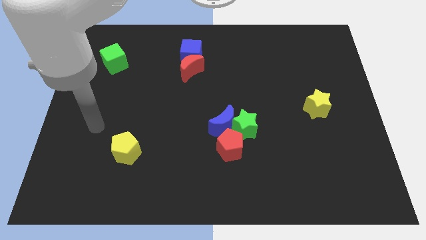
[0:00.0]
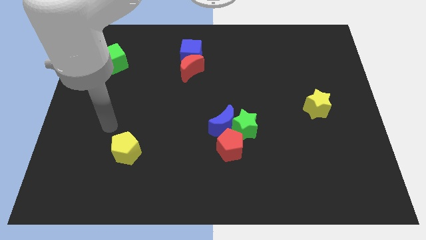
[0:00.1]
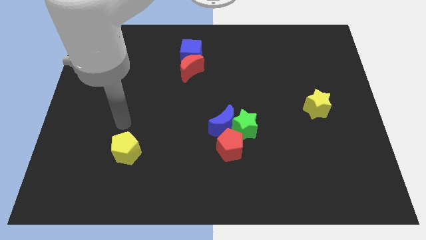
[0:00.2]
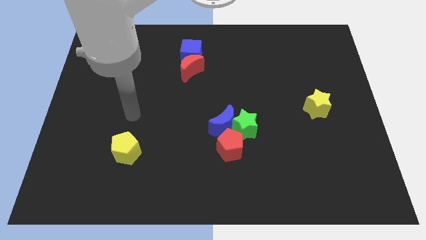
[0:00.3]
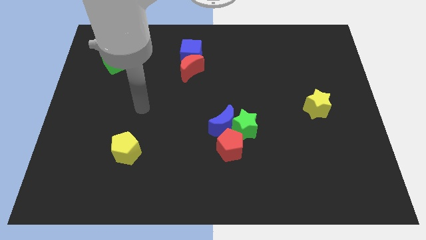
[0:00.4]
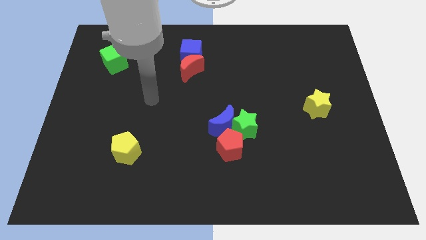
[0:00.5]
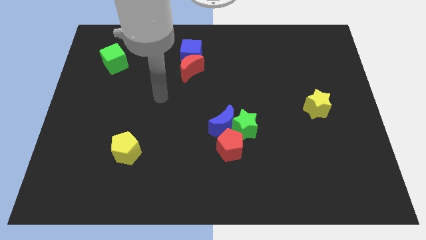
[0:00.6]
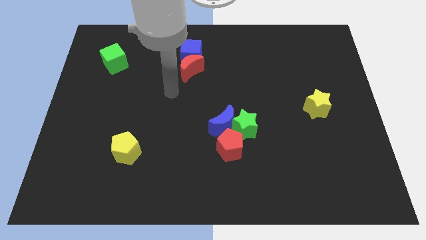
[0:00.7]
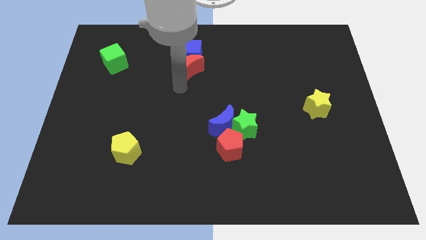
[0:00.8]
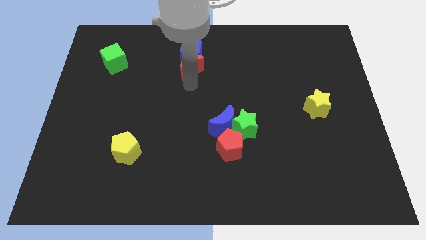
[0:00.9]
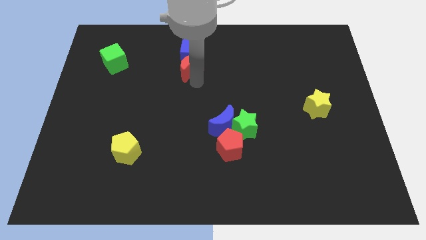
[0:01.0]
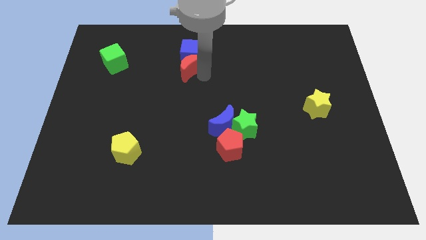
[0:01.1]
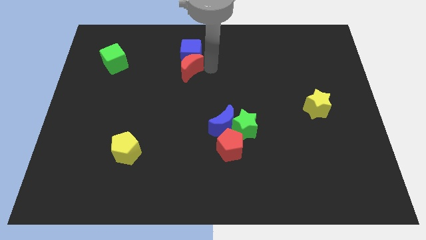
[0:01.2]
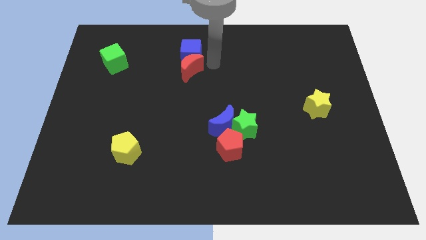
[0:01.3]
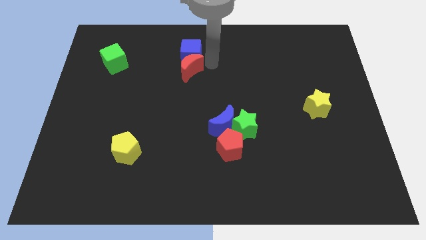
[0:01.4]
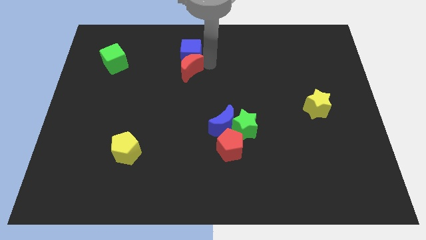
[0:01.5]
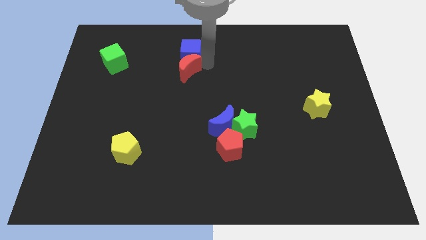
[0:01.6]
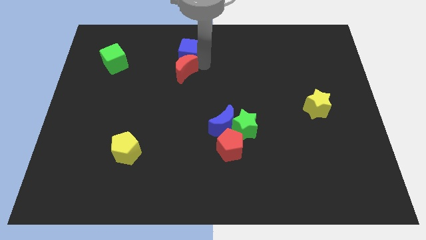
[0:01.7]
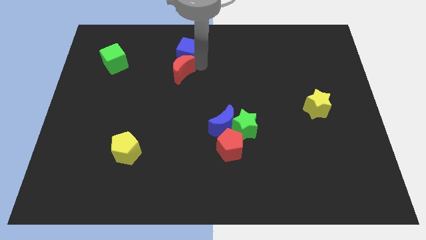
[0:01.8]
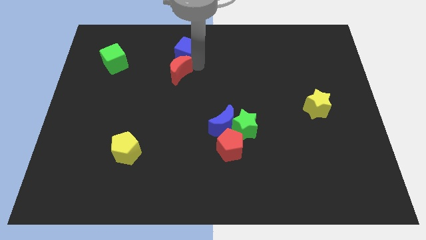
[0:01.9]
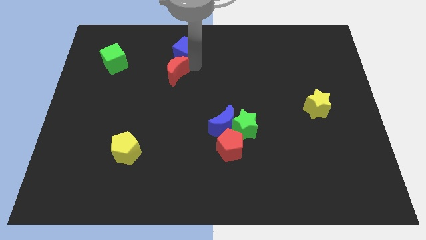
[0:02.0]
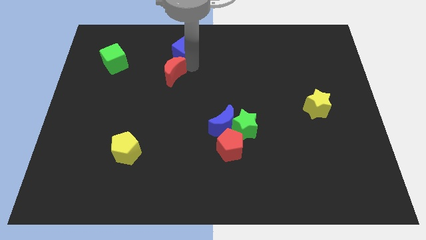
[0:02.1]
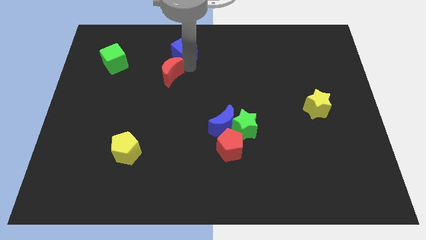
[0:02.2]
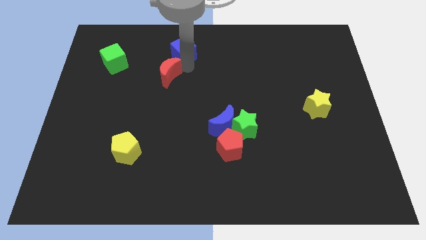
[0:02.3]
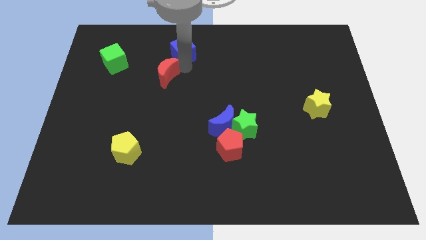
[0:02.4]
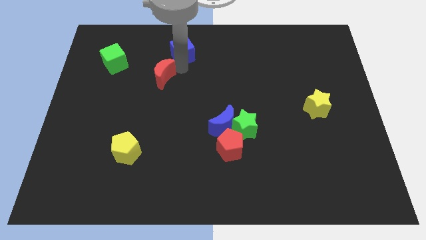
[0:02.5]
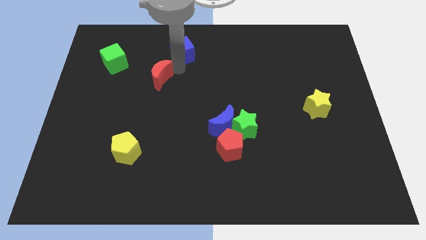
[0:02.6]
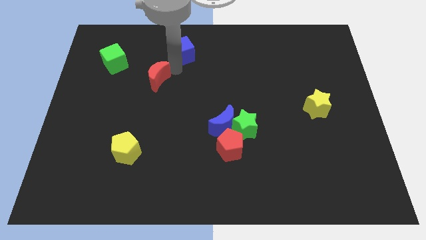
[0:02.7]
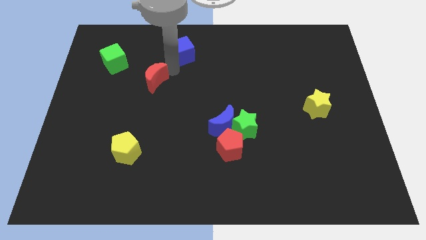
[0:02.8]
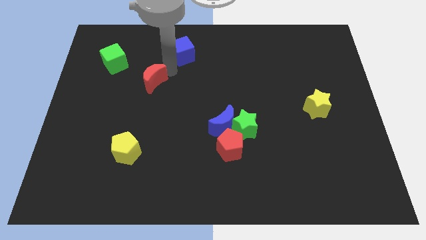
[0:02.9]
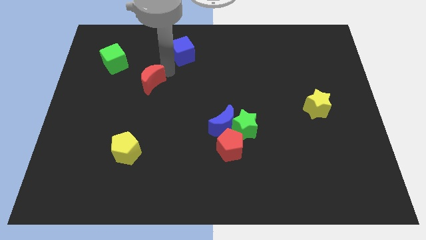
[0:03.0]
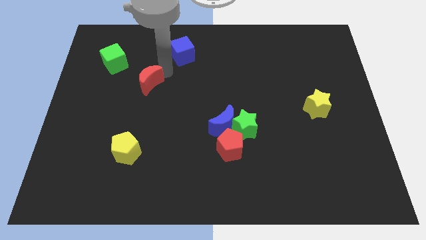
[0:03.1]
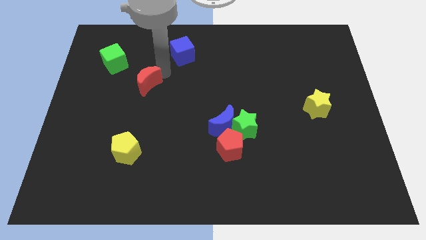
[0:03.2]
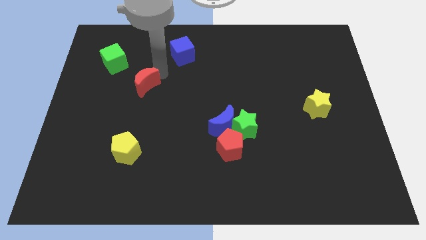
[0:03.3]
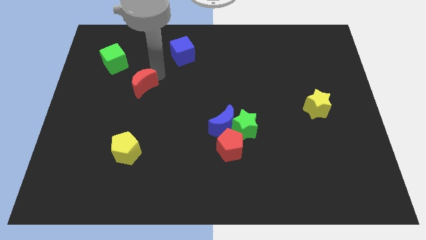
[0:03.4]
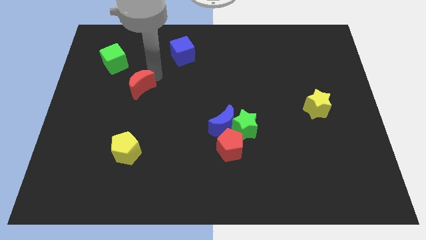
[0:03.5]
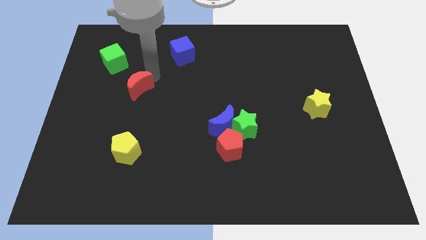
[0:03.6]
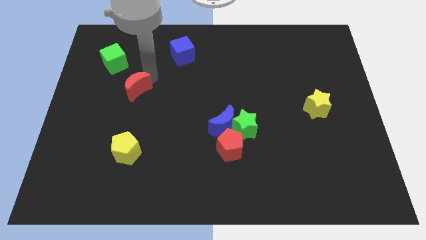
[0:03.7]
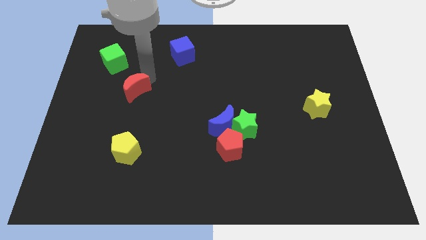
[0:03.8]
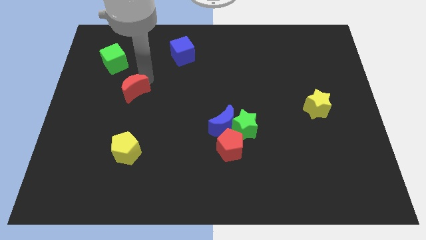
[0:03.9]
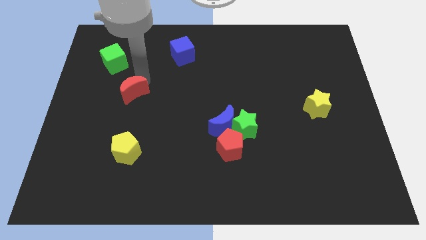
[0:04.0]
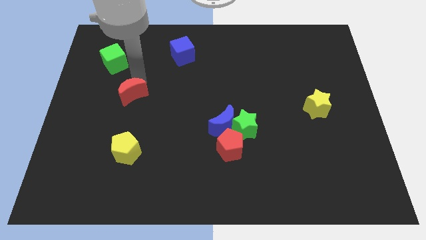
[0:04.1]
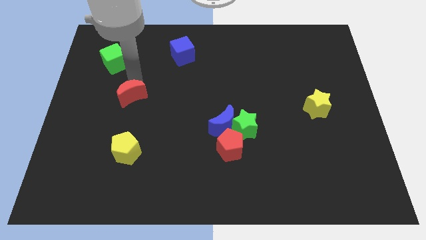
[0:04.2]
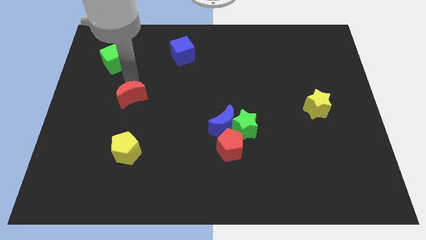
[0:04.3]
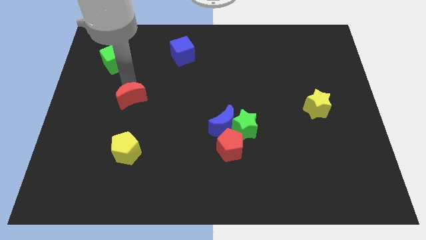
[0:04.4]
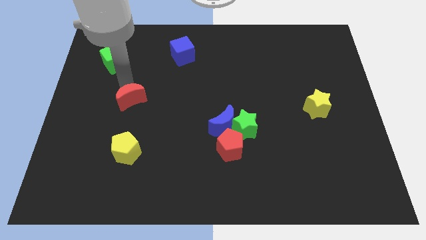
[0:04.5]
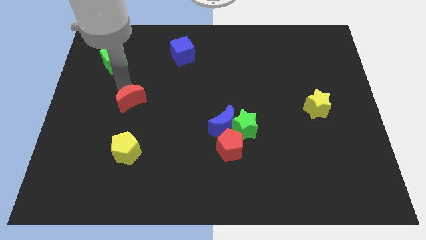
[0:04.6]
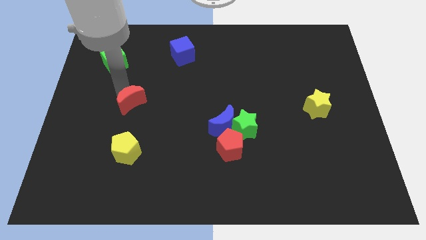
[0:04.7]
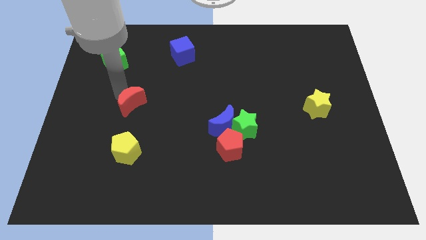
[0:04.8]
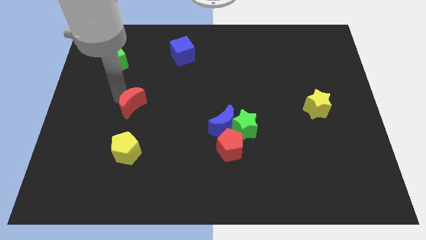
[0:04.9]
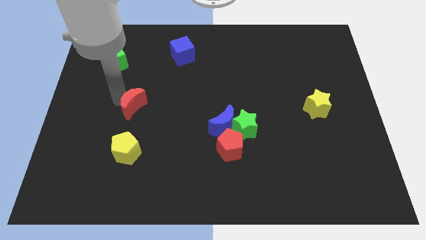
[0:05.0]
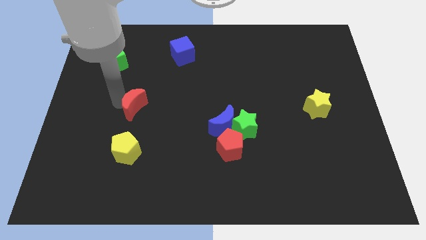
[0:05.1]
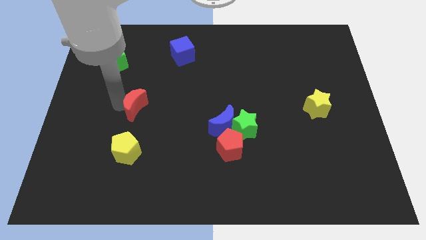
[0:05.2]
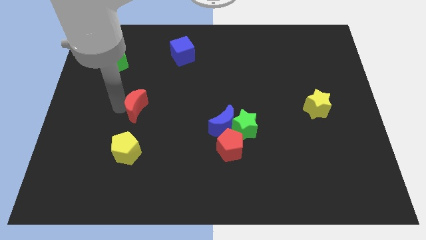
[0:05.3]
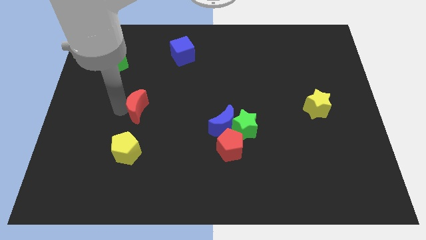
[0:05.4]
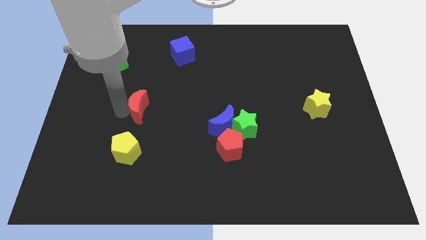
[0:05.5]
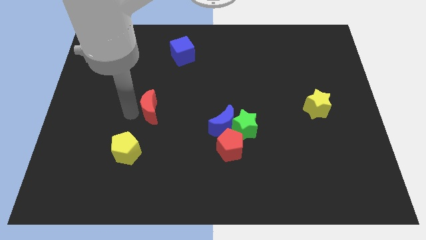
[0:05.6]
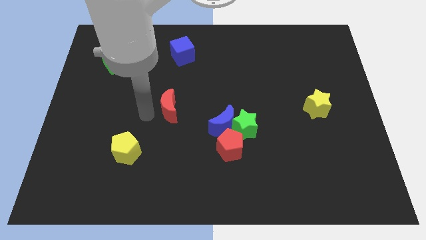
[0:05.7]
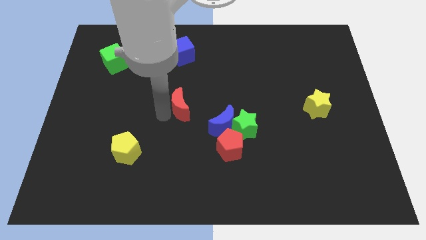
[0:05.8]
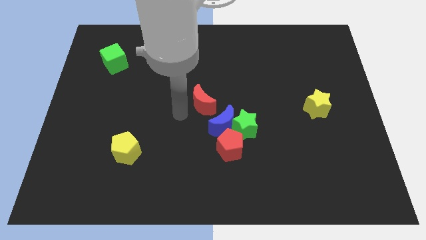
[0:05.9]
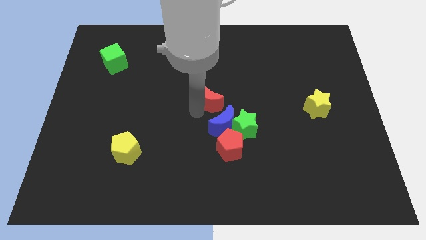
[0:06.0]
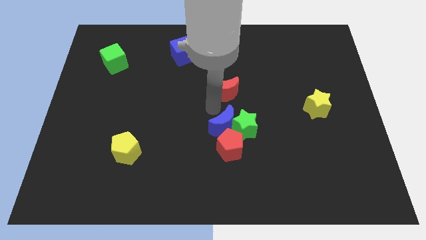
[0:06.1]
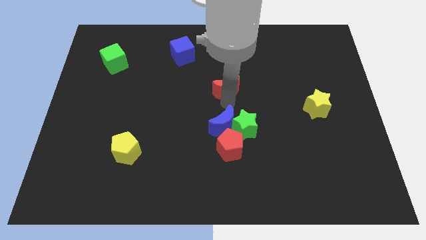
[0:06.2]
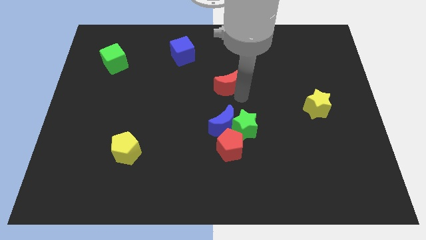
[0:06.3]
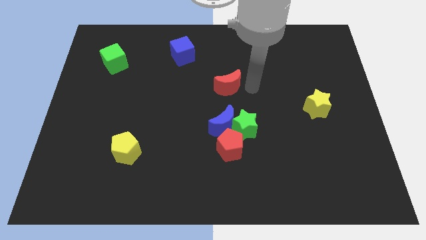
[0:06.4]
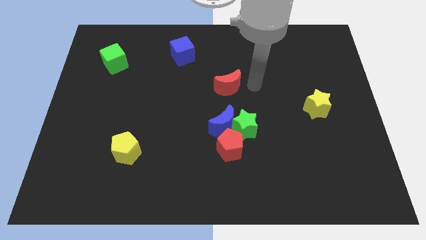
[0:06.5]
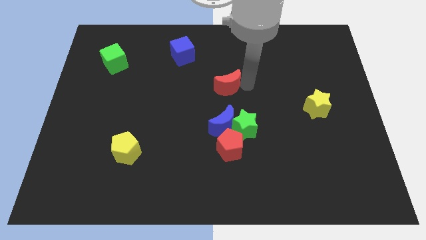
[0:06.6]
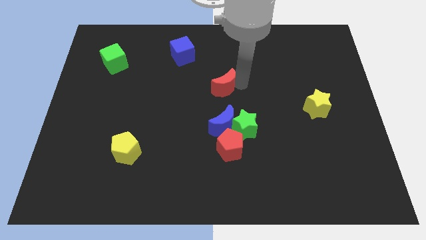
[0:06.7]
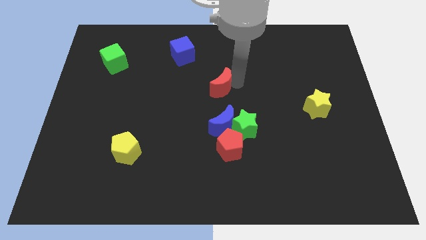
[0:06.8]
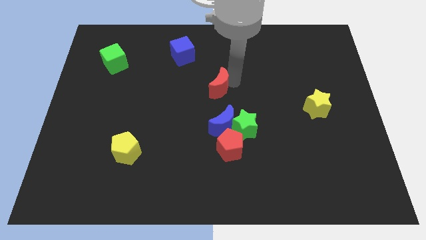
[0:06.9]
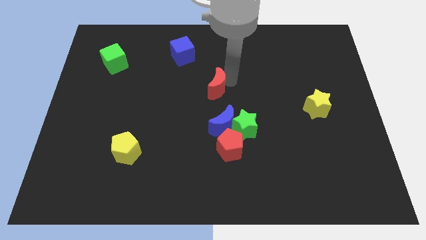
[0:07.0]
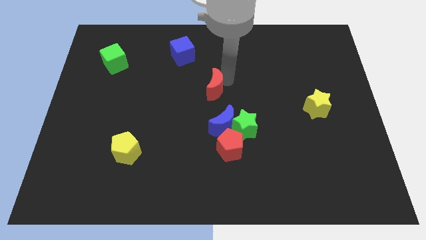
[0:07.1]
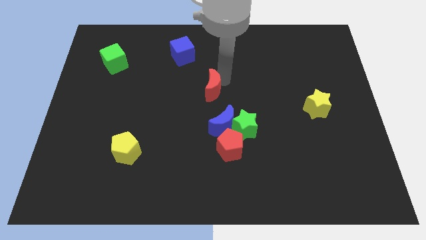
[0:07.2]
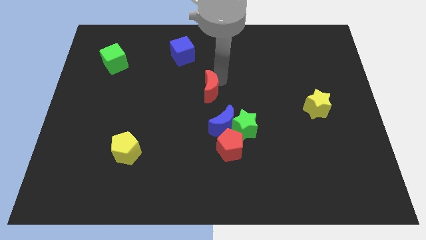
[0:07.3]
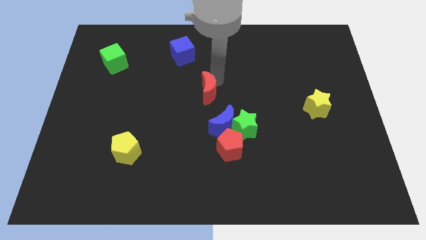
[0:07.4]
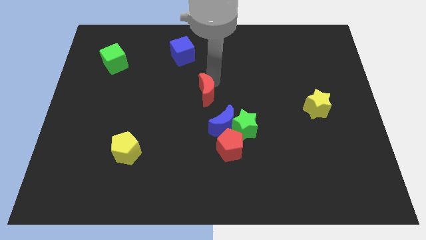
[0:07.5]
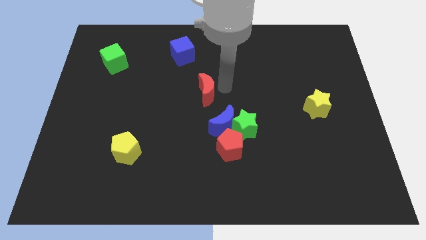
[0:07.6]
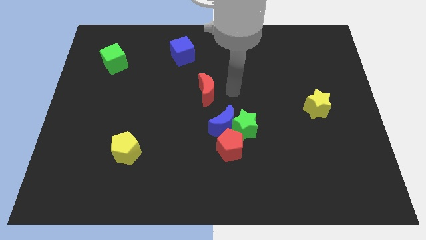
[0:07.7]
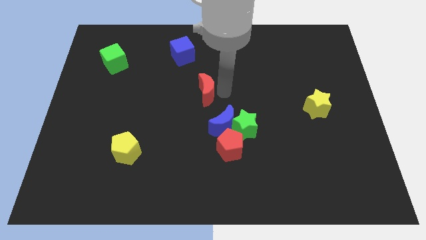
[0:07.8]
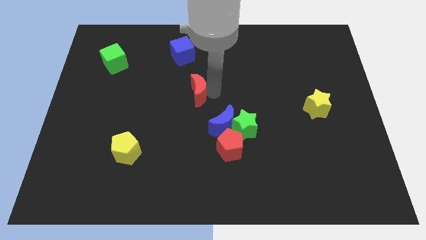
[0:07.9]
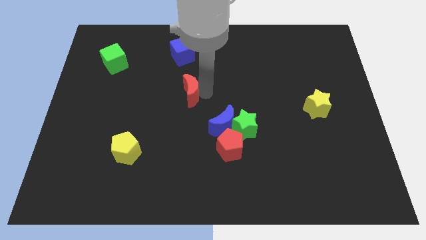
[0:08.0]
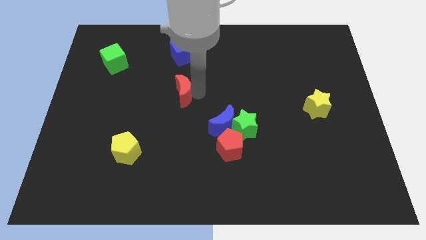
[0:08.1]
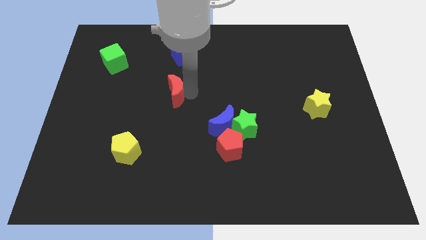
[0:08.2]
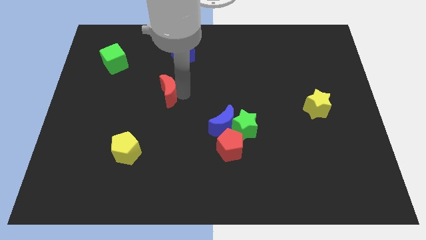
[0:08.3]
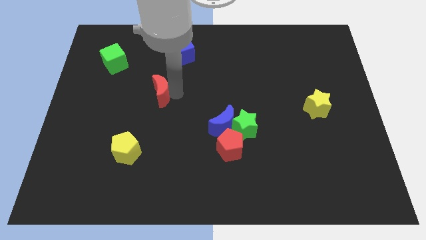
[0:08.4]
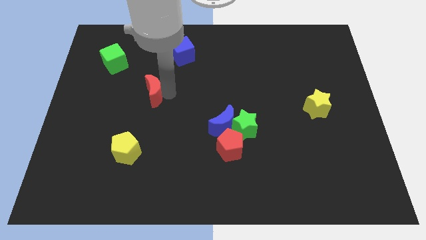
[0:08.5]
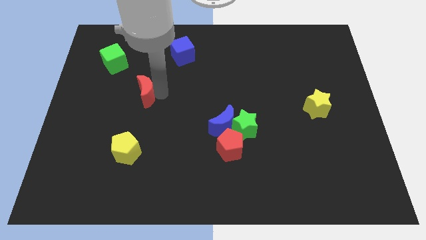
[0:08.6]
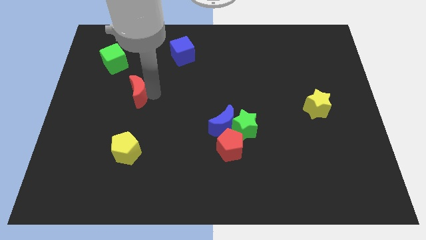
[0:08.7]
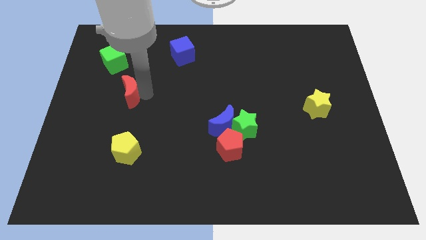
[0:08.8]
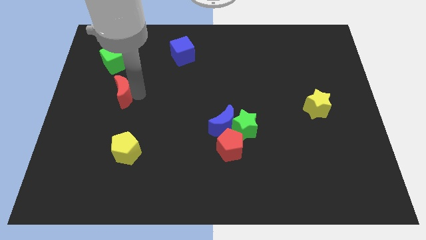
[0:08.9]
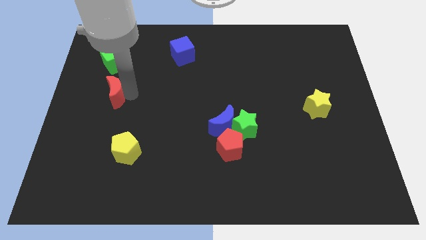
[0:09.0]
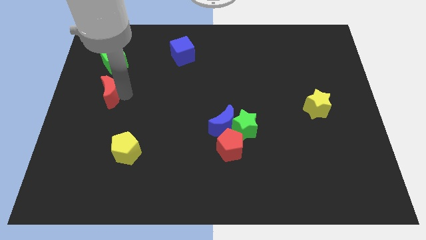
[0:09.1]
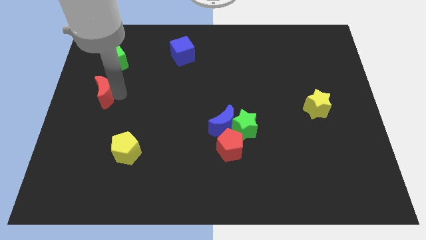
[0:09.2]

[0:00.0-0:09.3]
push the red moon to the left side of the board
